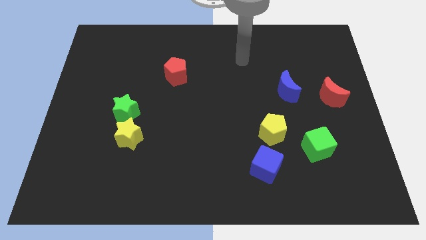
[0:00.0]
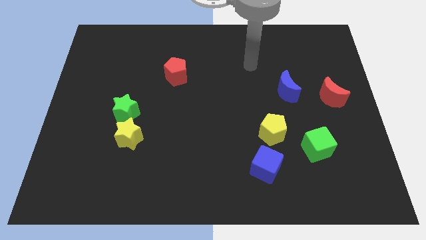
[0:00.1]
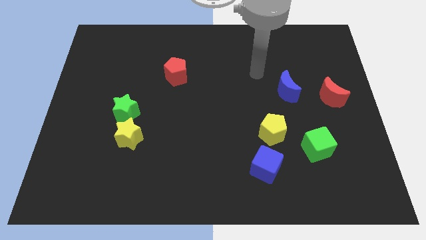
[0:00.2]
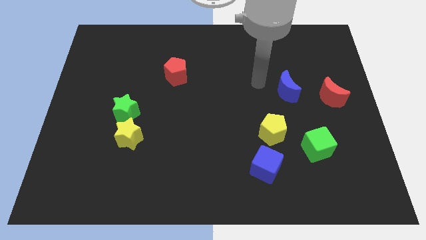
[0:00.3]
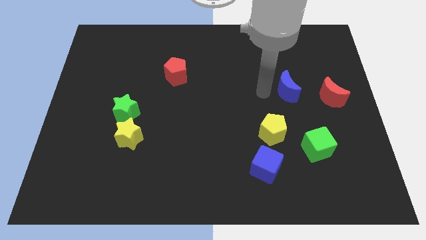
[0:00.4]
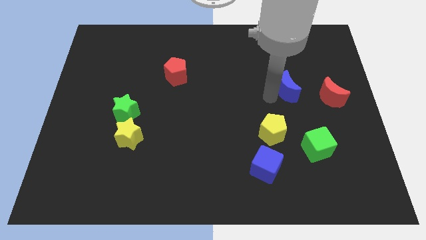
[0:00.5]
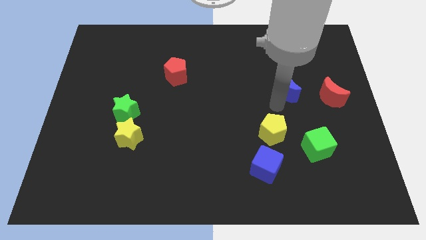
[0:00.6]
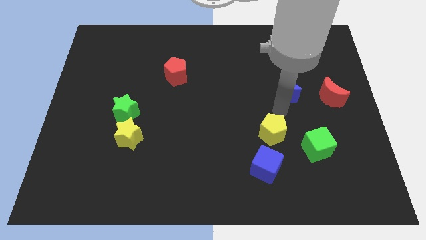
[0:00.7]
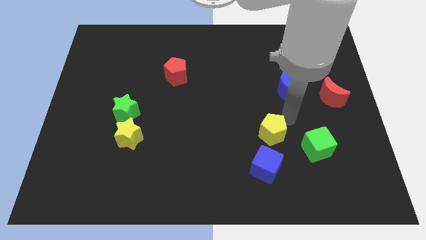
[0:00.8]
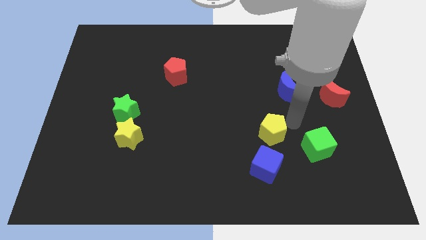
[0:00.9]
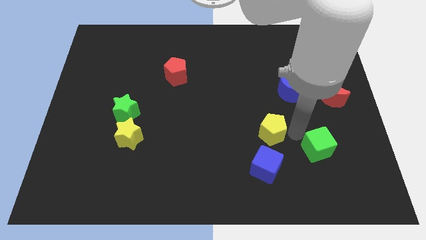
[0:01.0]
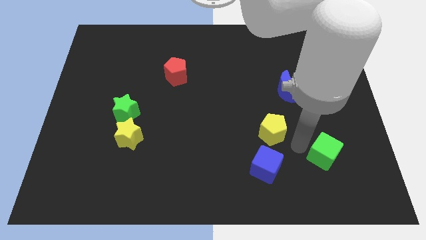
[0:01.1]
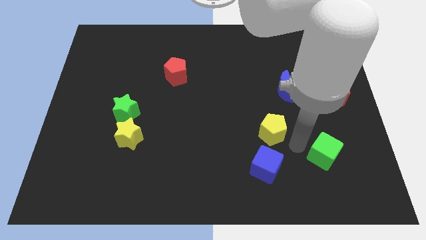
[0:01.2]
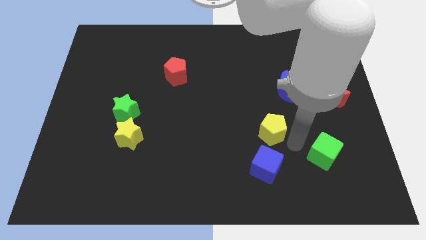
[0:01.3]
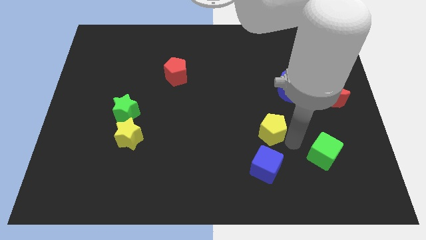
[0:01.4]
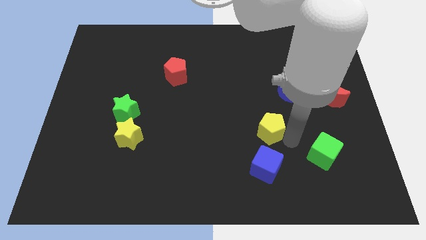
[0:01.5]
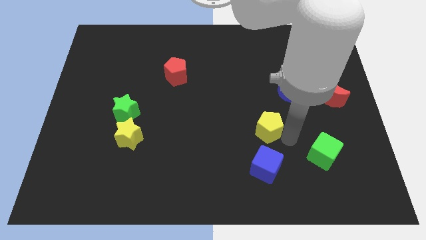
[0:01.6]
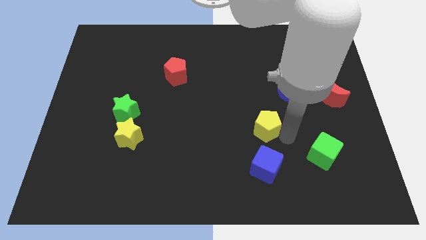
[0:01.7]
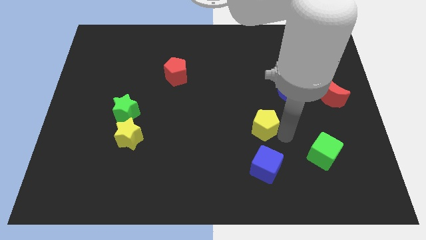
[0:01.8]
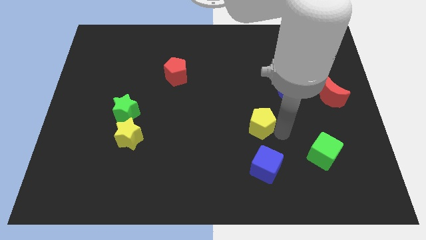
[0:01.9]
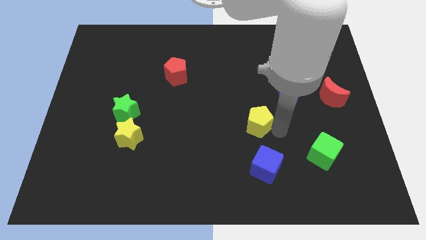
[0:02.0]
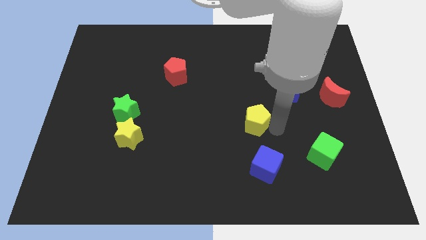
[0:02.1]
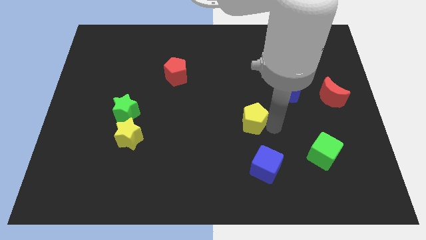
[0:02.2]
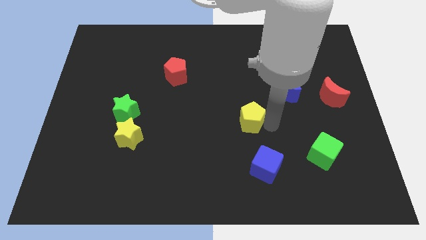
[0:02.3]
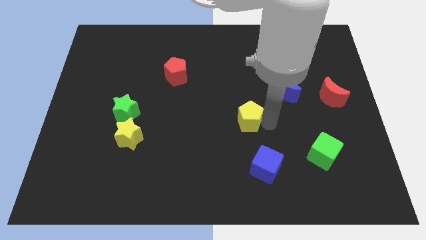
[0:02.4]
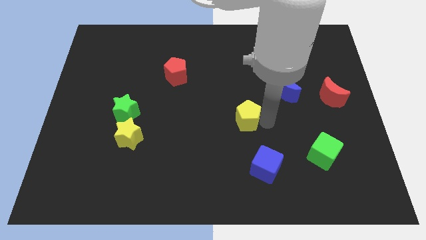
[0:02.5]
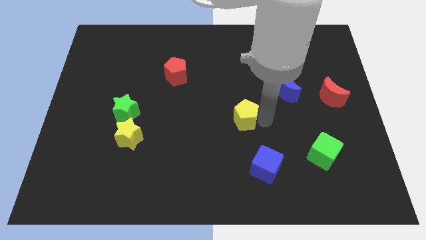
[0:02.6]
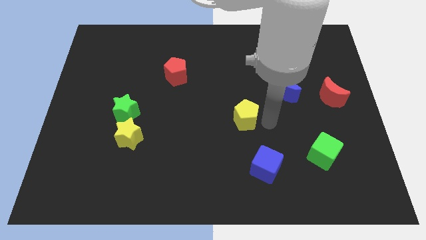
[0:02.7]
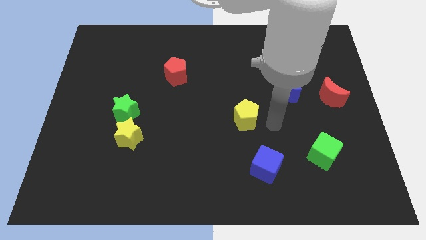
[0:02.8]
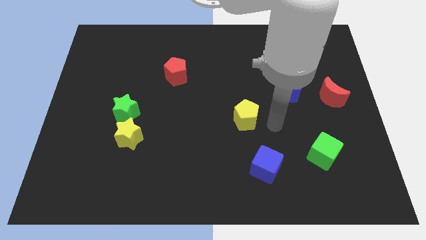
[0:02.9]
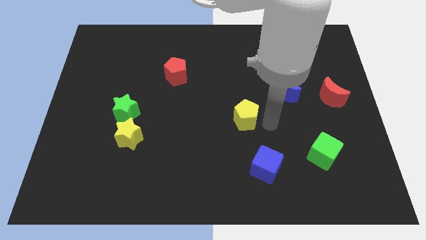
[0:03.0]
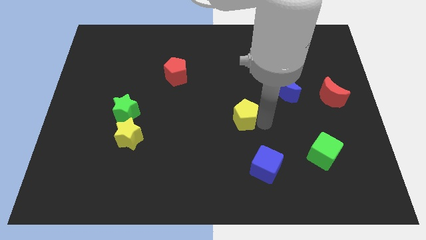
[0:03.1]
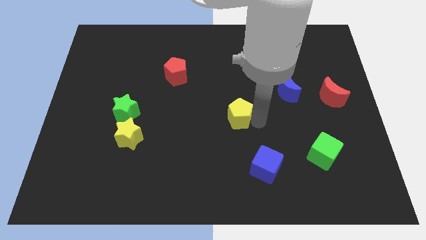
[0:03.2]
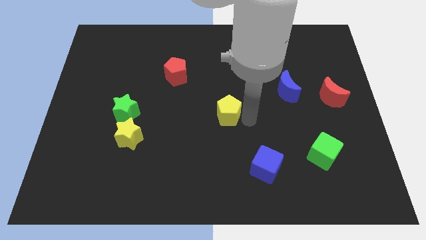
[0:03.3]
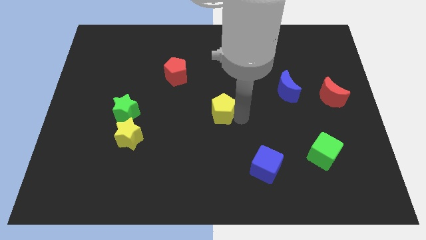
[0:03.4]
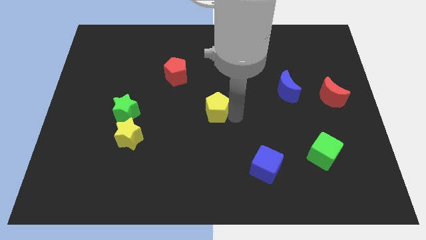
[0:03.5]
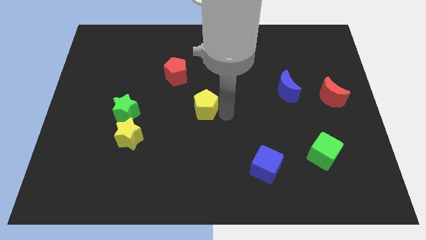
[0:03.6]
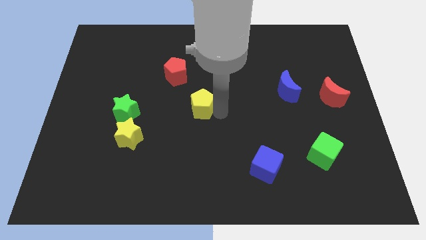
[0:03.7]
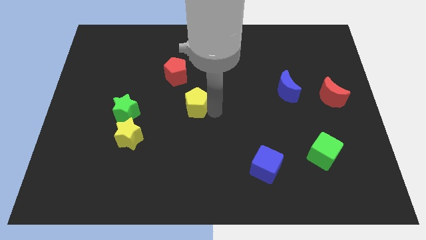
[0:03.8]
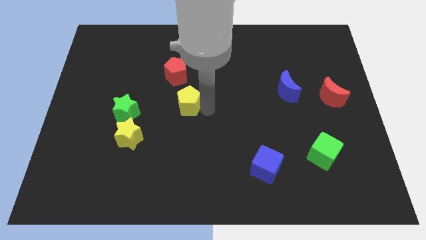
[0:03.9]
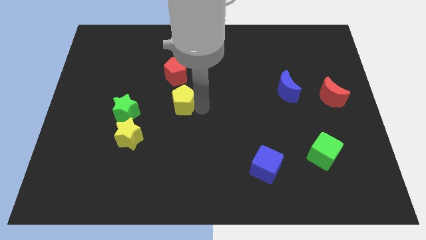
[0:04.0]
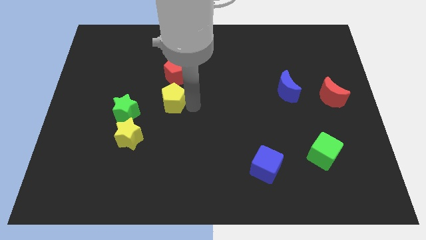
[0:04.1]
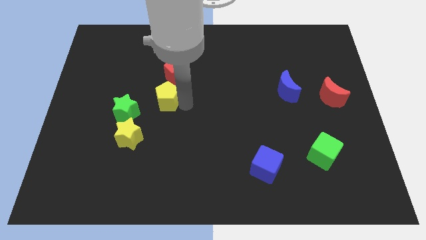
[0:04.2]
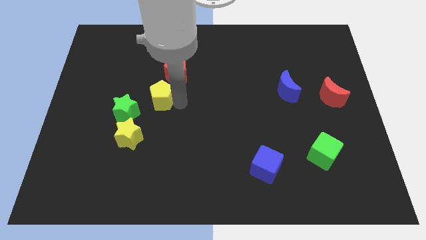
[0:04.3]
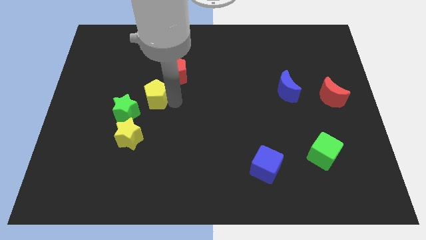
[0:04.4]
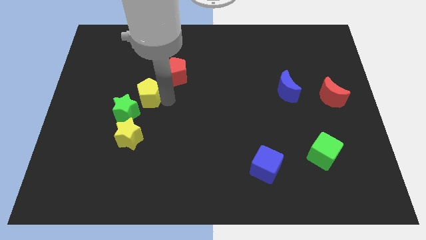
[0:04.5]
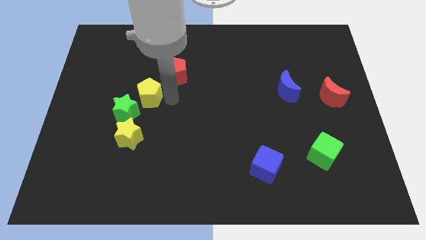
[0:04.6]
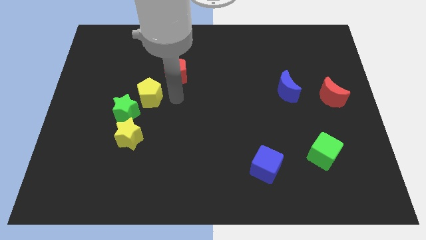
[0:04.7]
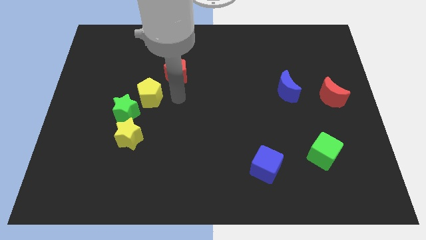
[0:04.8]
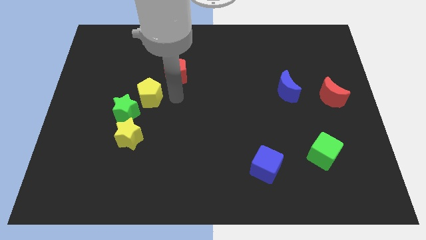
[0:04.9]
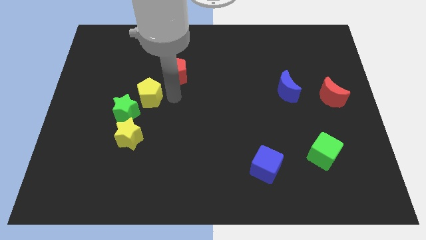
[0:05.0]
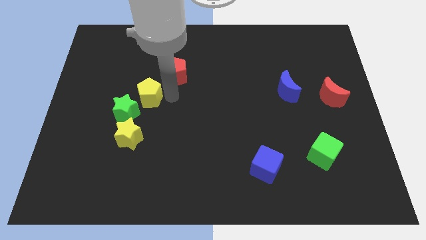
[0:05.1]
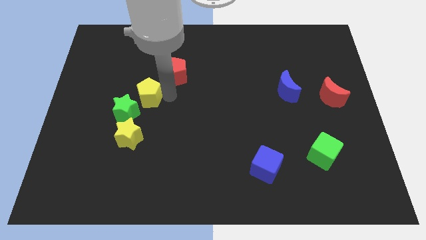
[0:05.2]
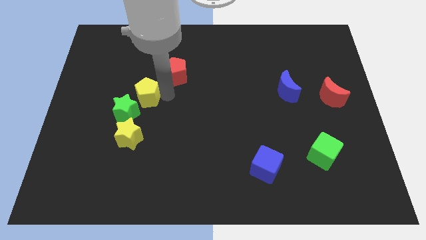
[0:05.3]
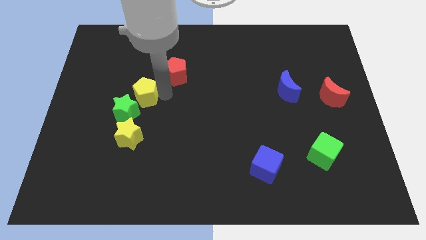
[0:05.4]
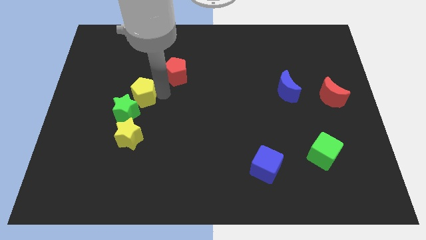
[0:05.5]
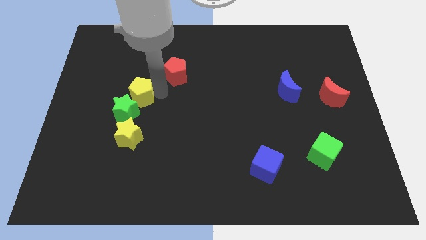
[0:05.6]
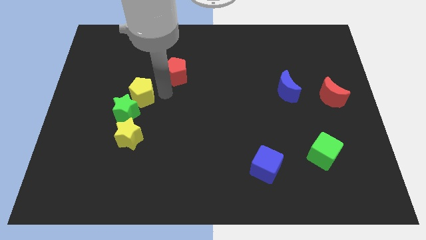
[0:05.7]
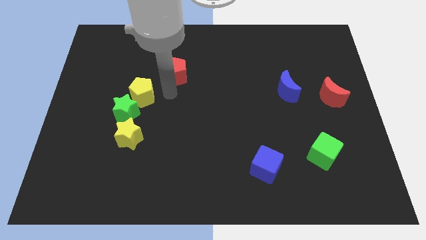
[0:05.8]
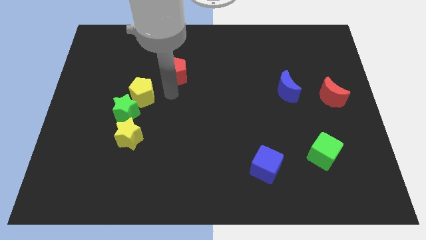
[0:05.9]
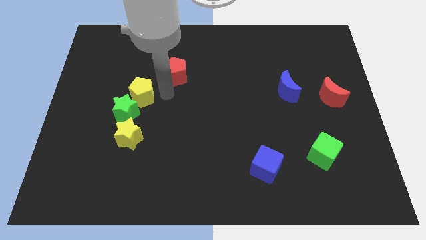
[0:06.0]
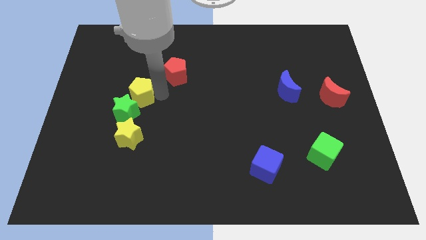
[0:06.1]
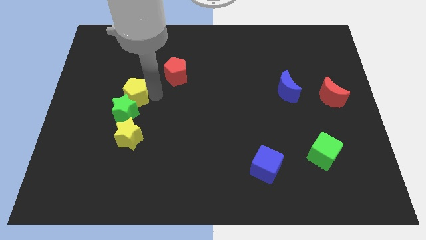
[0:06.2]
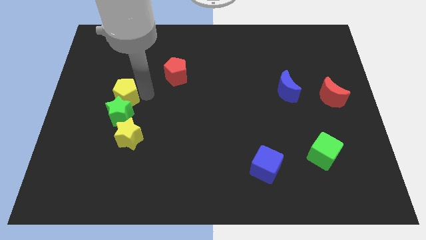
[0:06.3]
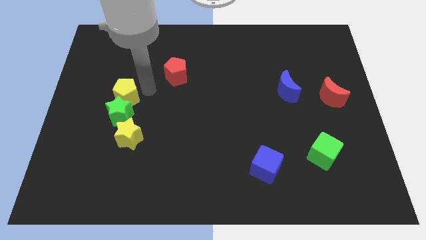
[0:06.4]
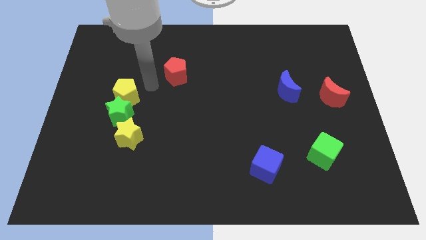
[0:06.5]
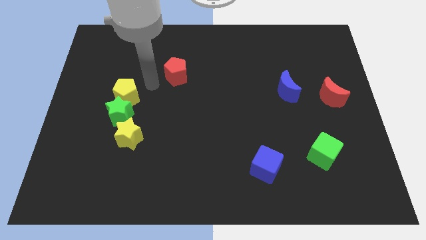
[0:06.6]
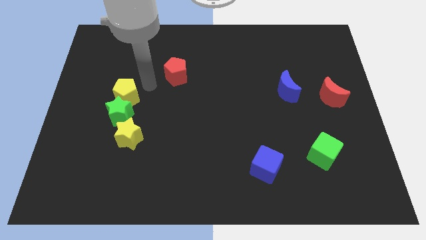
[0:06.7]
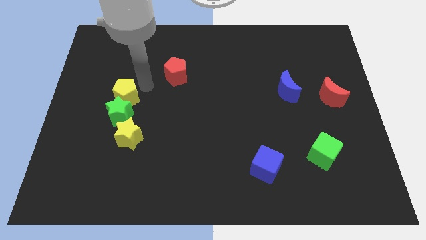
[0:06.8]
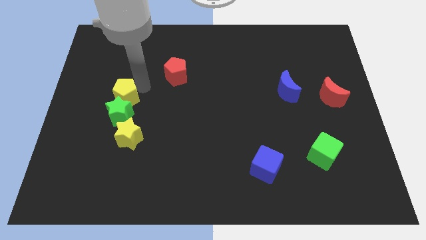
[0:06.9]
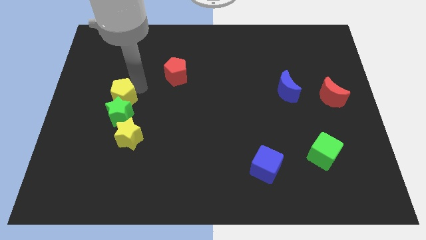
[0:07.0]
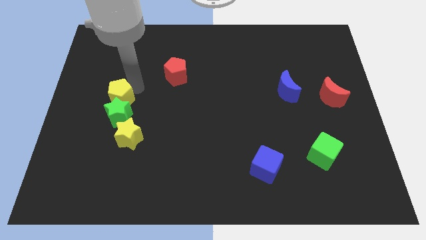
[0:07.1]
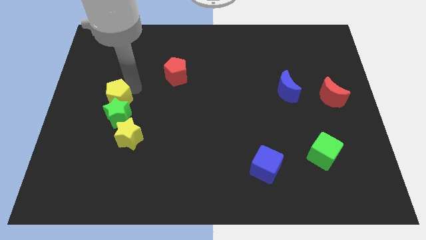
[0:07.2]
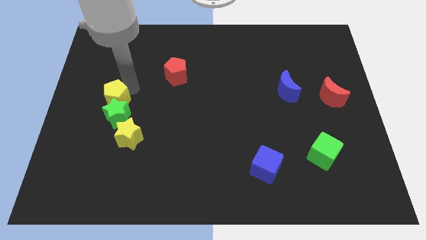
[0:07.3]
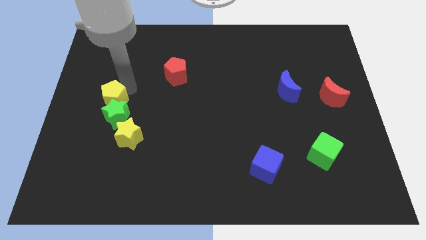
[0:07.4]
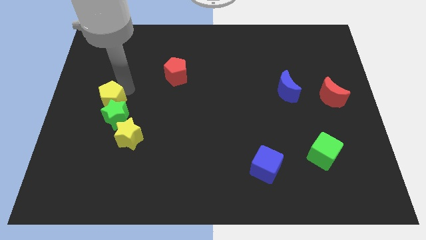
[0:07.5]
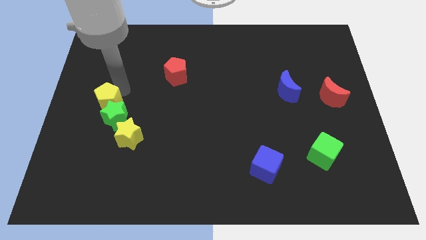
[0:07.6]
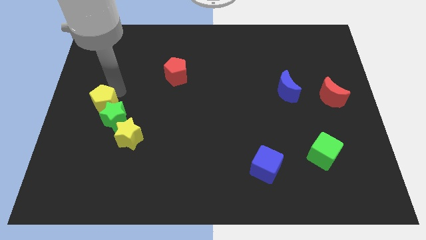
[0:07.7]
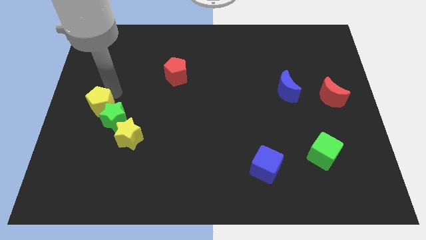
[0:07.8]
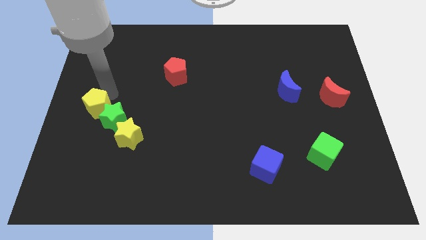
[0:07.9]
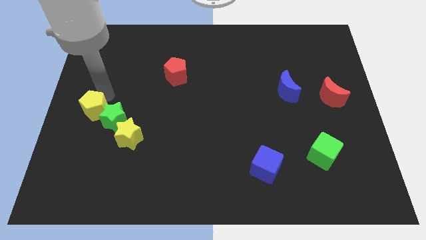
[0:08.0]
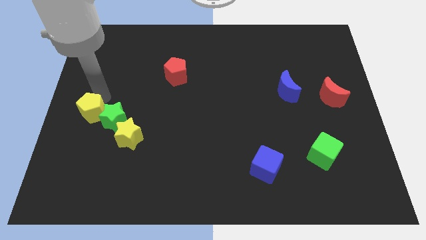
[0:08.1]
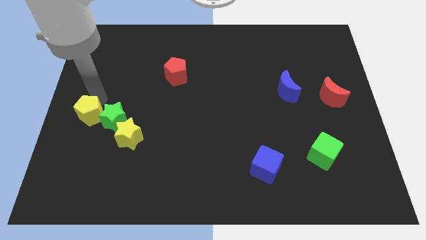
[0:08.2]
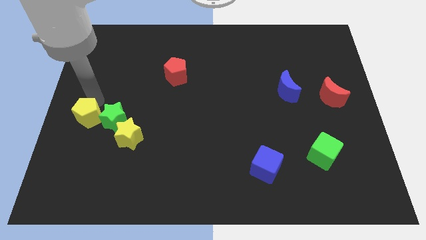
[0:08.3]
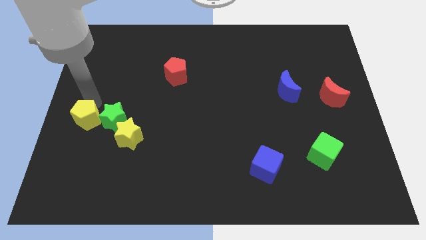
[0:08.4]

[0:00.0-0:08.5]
push the yellow pentagon diagonally down and to the left of the green star
